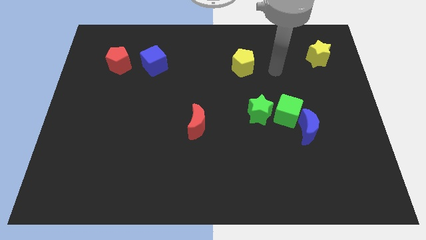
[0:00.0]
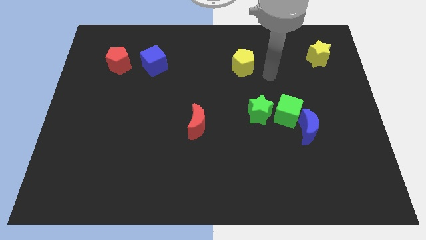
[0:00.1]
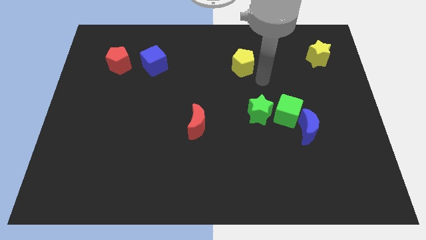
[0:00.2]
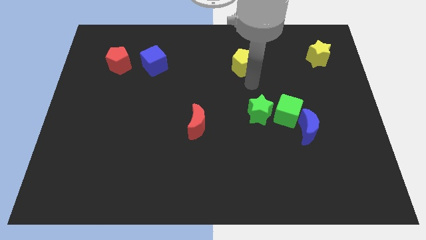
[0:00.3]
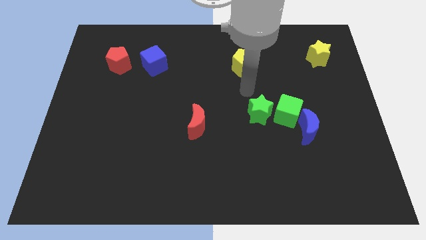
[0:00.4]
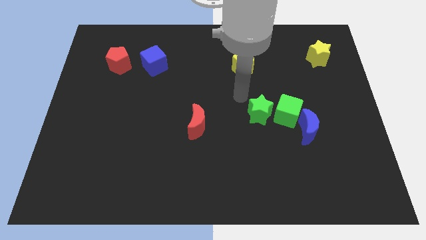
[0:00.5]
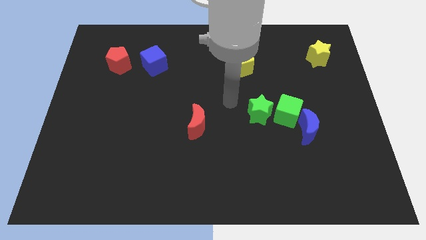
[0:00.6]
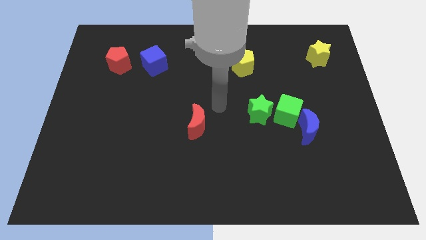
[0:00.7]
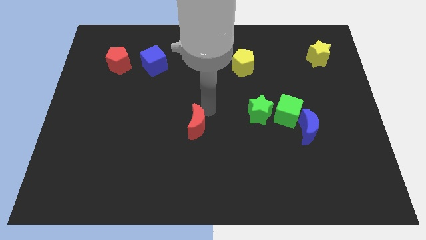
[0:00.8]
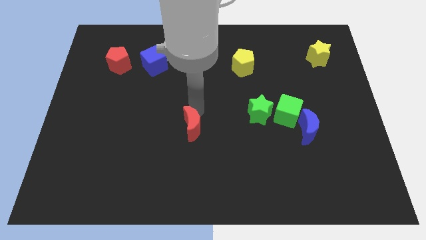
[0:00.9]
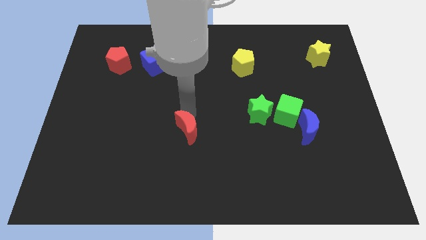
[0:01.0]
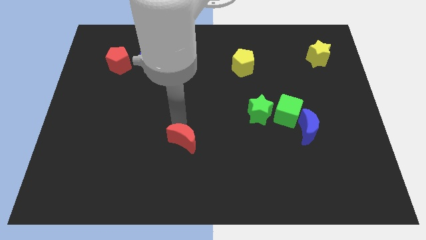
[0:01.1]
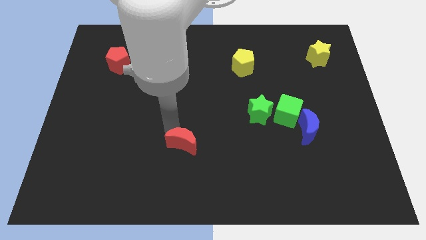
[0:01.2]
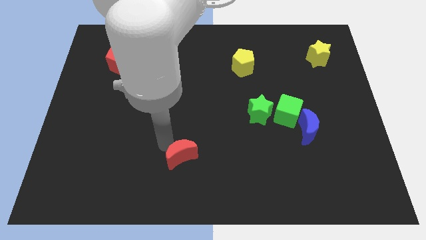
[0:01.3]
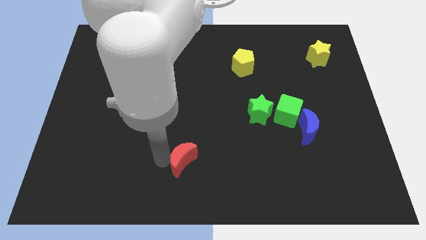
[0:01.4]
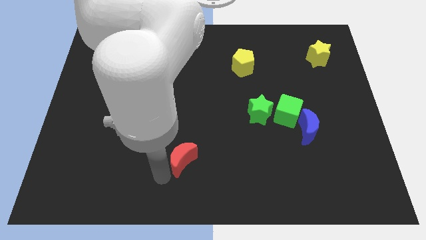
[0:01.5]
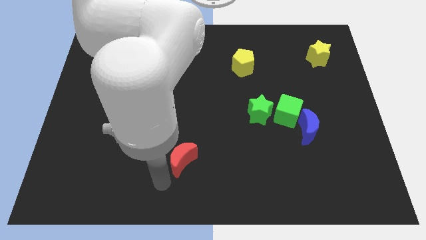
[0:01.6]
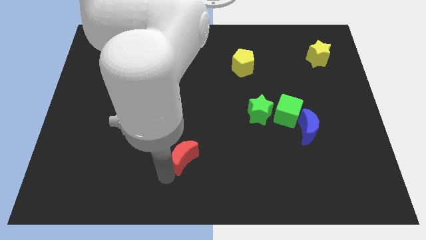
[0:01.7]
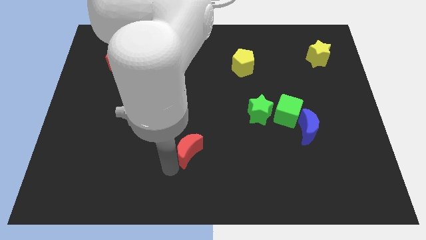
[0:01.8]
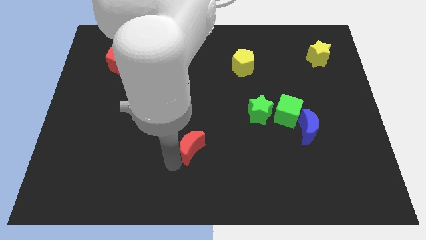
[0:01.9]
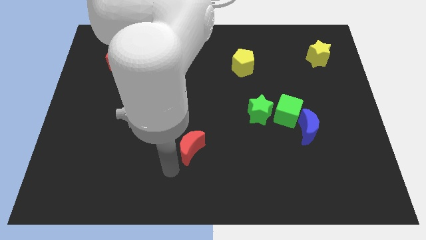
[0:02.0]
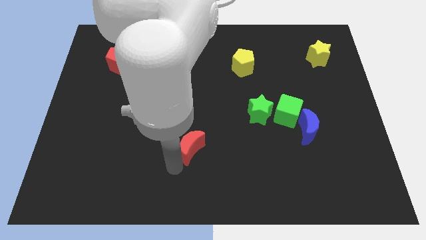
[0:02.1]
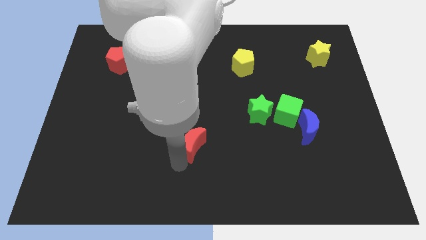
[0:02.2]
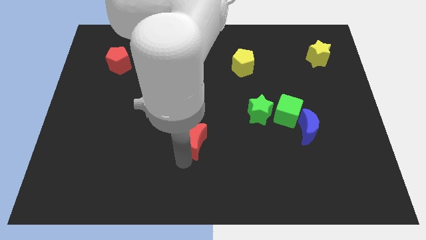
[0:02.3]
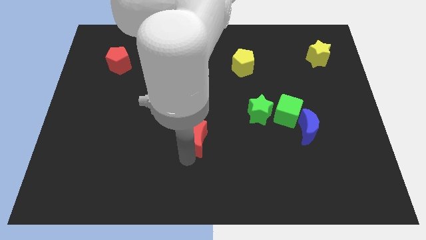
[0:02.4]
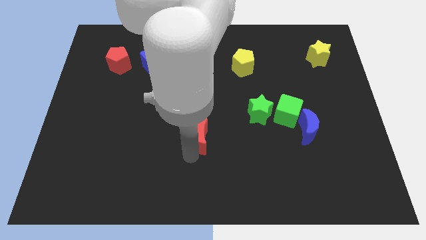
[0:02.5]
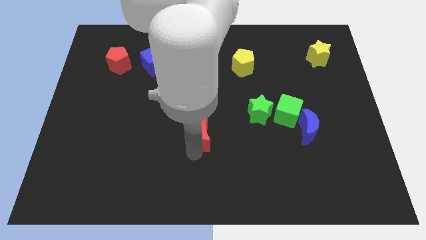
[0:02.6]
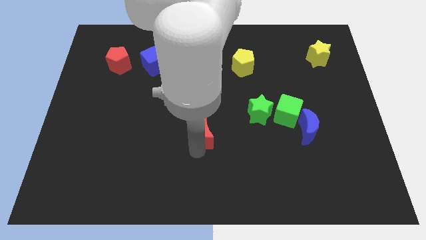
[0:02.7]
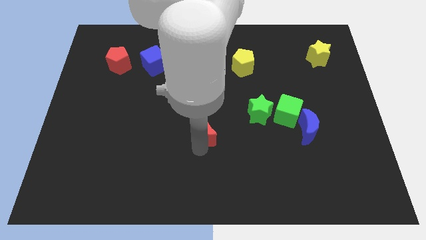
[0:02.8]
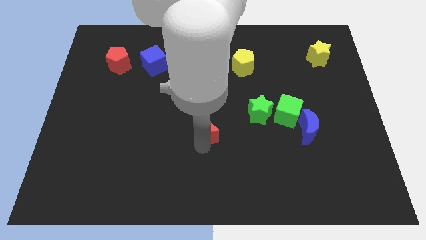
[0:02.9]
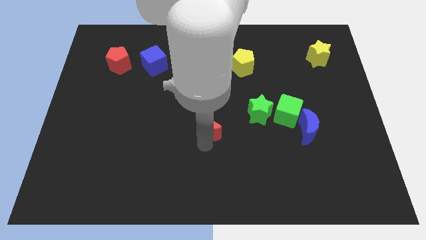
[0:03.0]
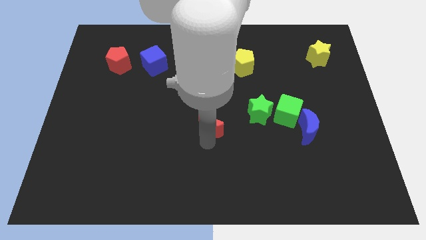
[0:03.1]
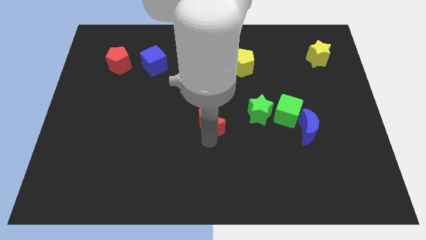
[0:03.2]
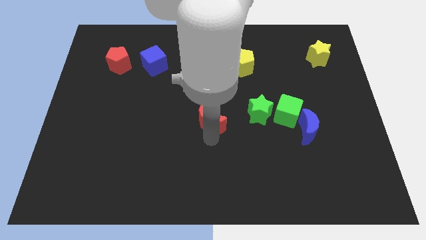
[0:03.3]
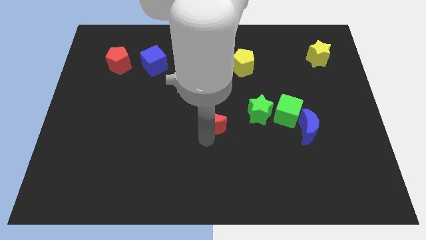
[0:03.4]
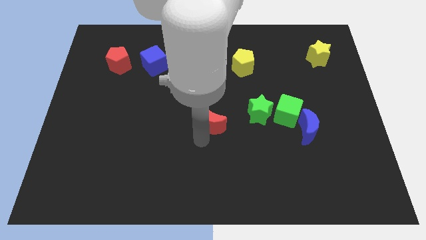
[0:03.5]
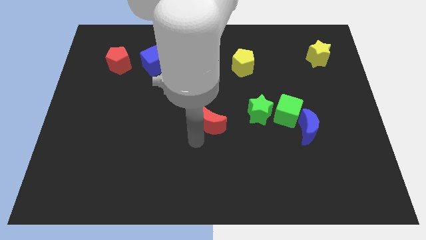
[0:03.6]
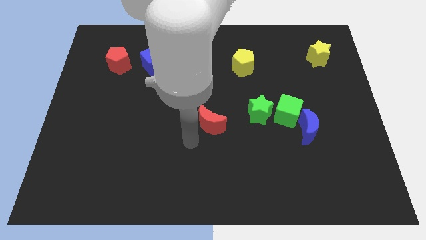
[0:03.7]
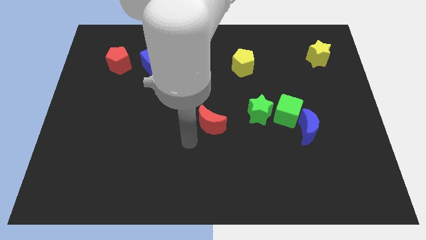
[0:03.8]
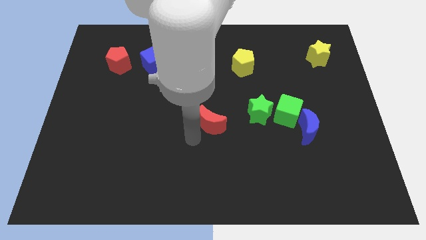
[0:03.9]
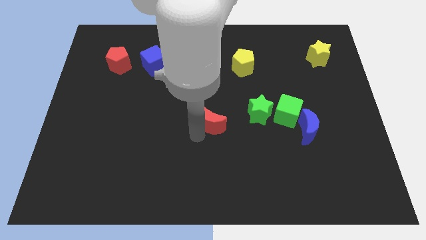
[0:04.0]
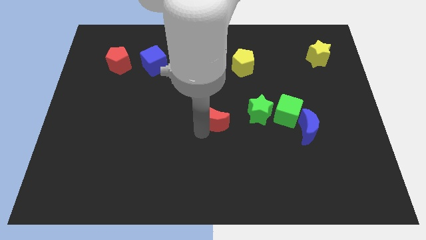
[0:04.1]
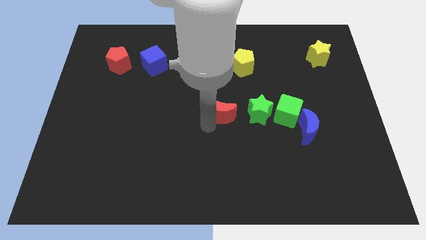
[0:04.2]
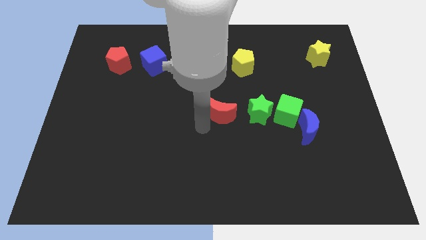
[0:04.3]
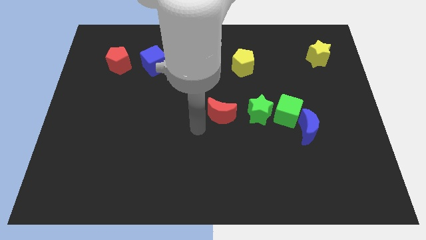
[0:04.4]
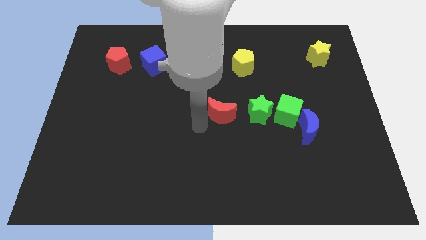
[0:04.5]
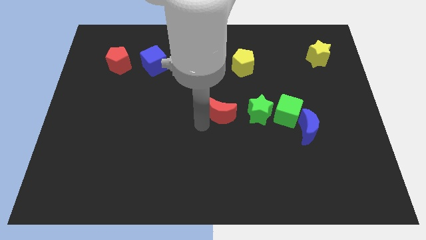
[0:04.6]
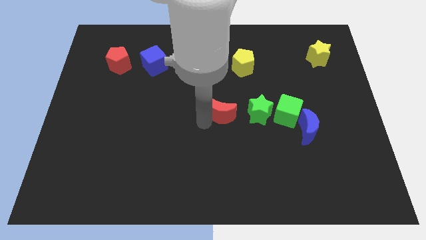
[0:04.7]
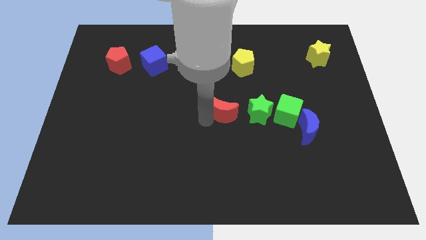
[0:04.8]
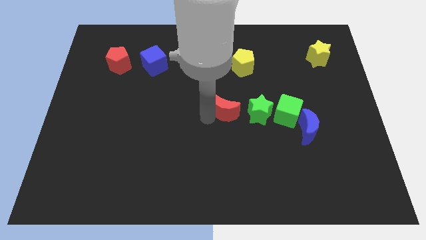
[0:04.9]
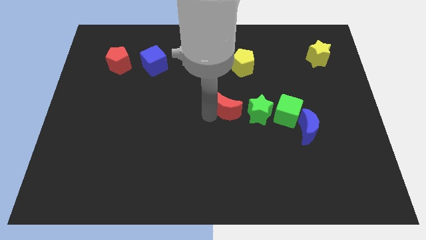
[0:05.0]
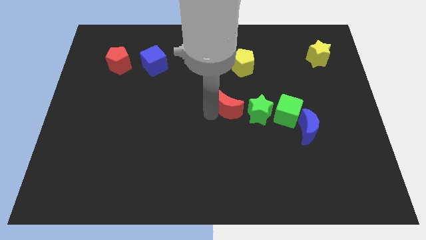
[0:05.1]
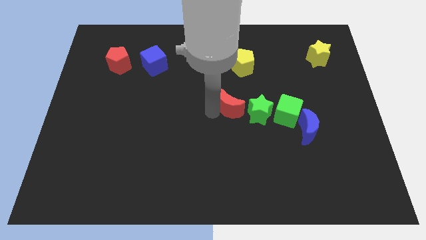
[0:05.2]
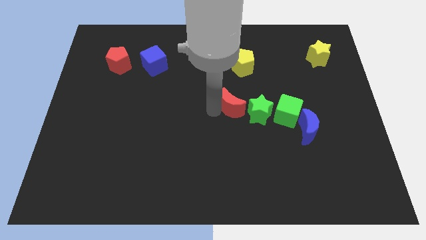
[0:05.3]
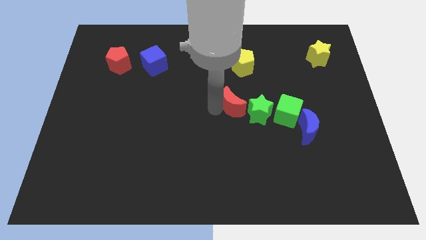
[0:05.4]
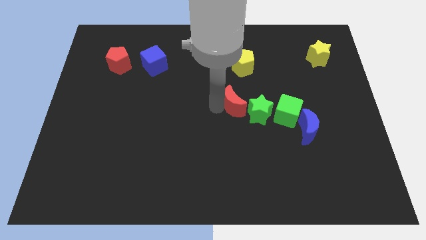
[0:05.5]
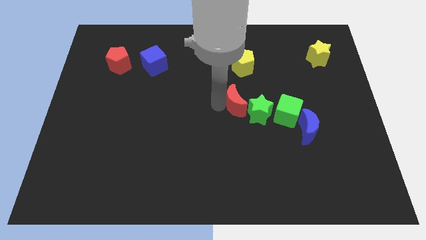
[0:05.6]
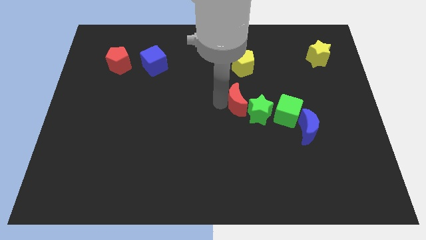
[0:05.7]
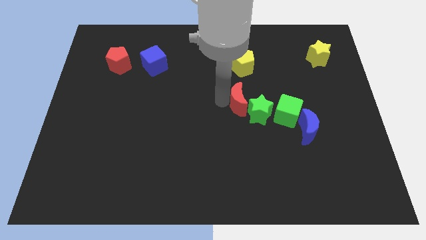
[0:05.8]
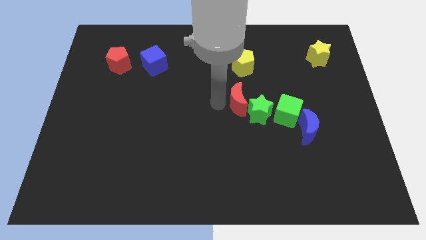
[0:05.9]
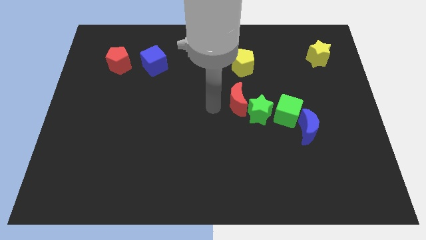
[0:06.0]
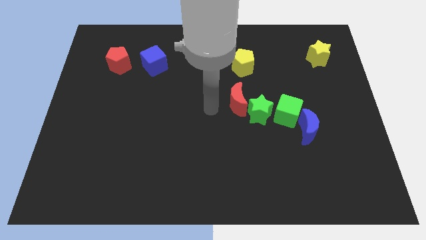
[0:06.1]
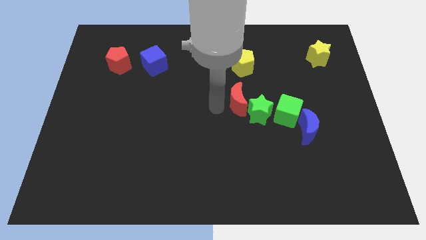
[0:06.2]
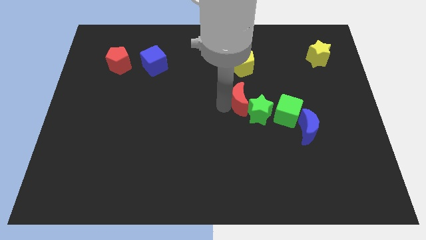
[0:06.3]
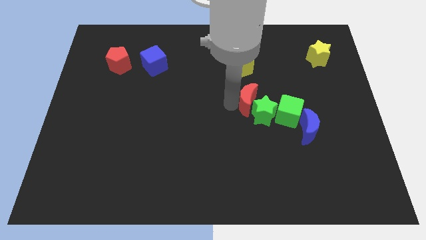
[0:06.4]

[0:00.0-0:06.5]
put the red moon to the top left of the green cube

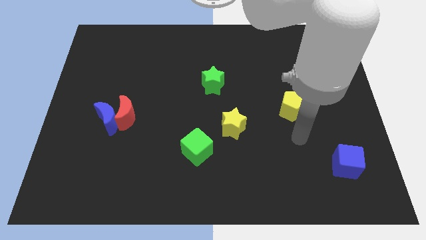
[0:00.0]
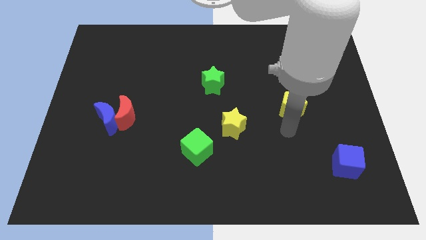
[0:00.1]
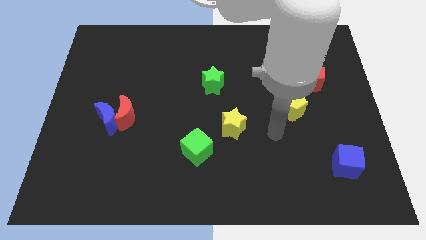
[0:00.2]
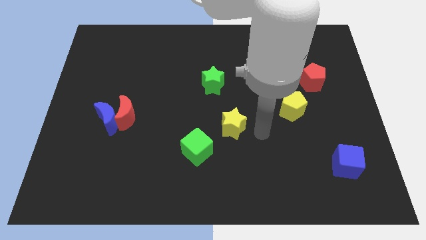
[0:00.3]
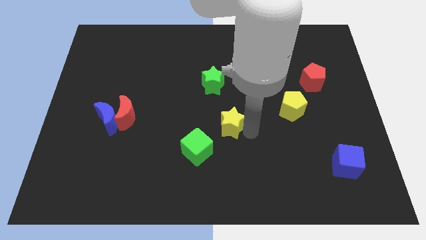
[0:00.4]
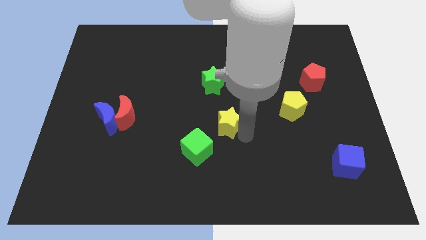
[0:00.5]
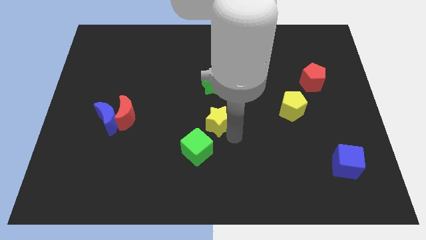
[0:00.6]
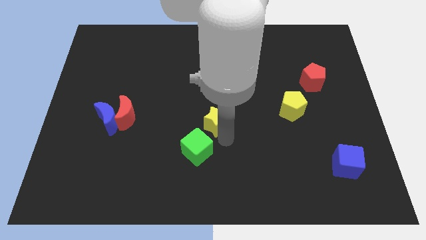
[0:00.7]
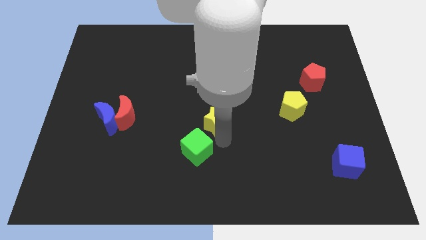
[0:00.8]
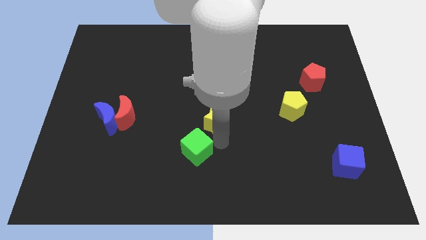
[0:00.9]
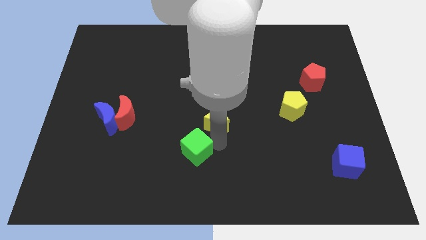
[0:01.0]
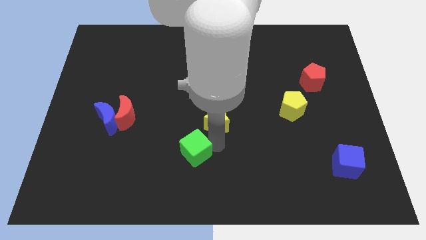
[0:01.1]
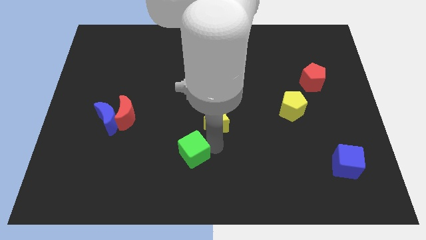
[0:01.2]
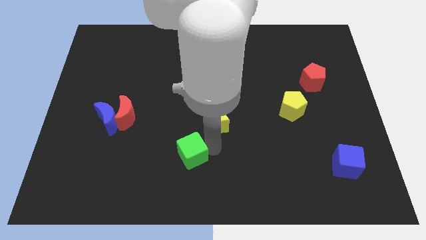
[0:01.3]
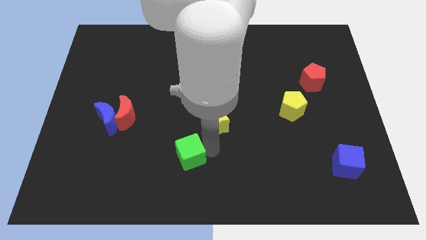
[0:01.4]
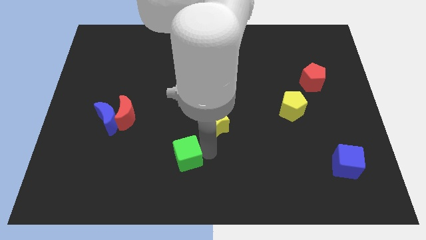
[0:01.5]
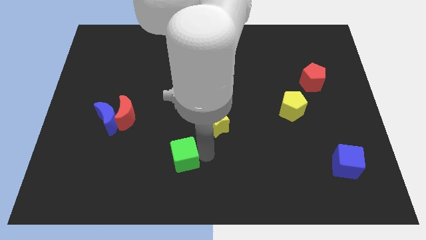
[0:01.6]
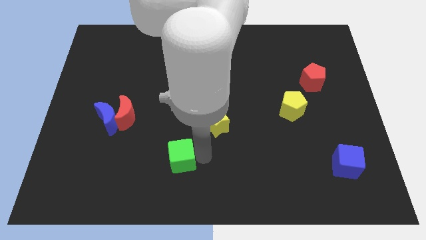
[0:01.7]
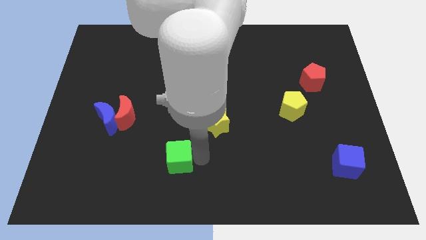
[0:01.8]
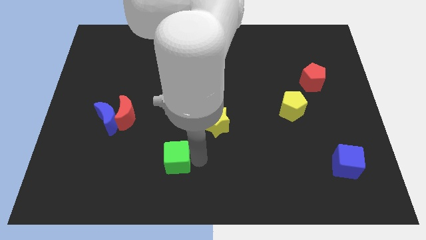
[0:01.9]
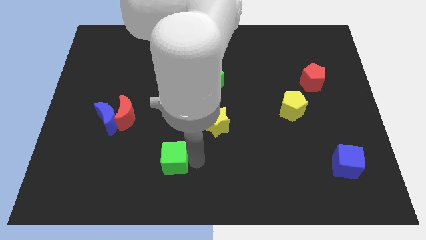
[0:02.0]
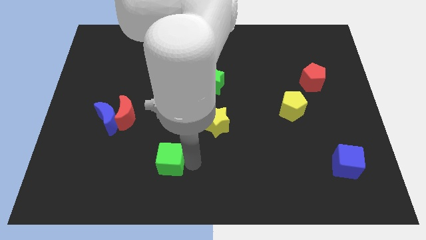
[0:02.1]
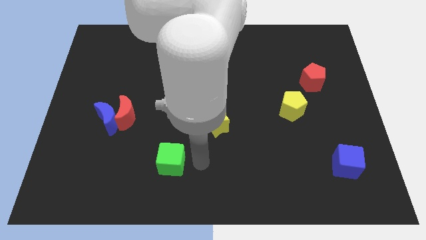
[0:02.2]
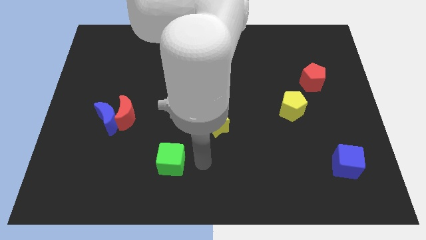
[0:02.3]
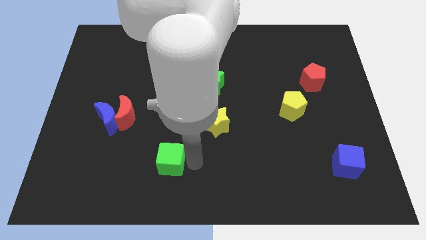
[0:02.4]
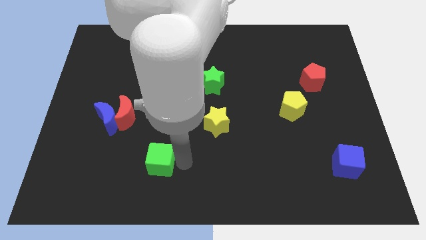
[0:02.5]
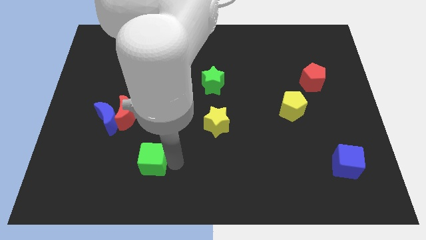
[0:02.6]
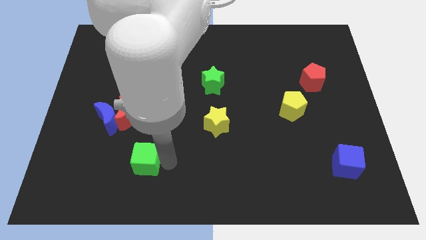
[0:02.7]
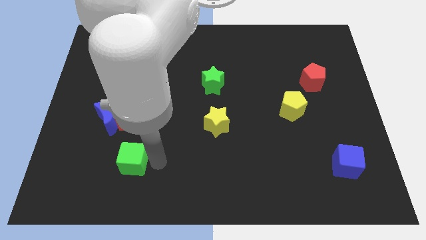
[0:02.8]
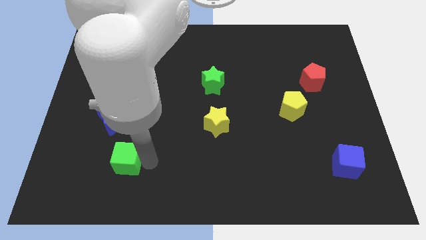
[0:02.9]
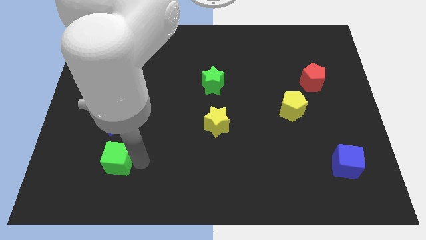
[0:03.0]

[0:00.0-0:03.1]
slide the green cube below the blue moon
